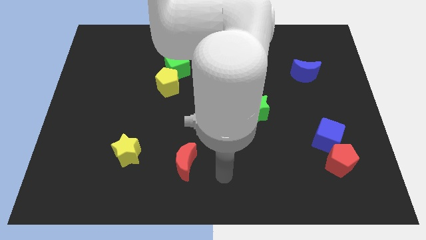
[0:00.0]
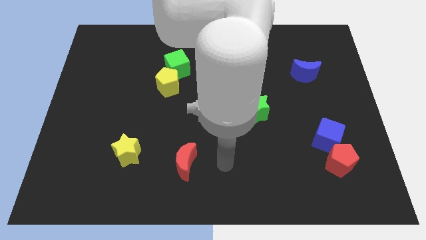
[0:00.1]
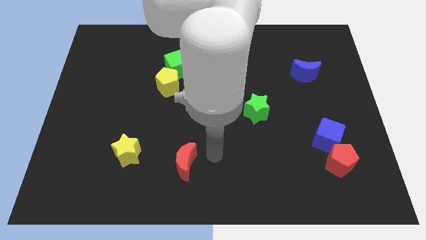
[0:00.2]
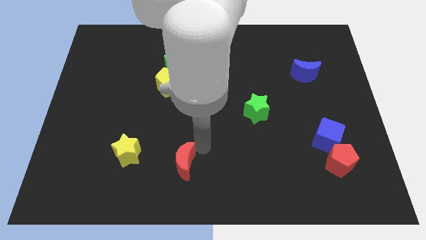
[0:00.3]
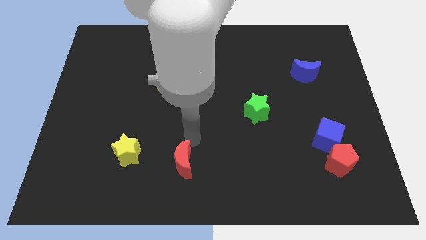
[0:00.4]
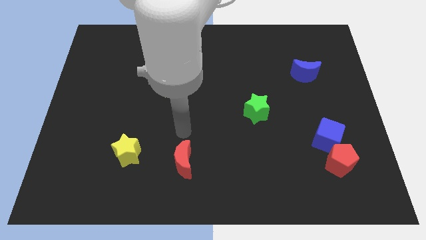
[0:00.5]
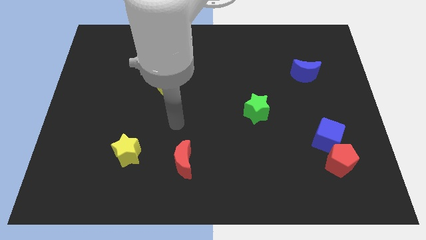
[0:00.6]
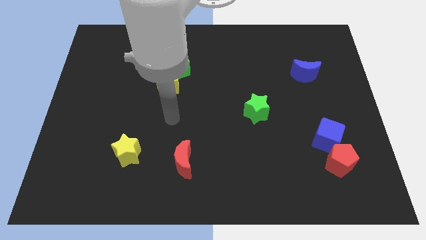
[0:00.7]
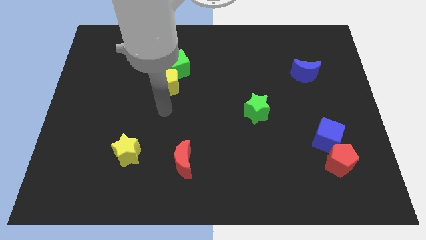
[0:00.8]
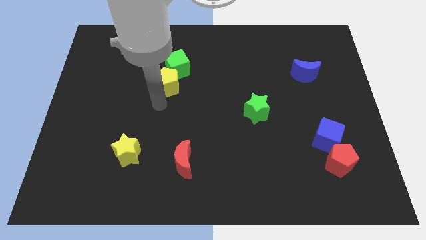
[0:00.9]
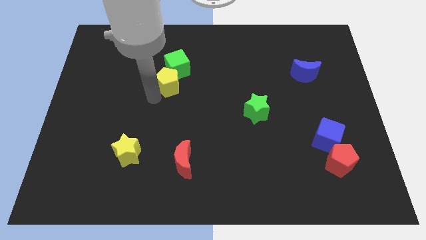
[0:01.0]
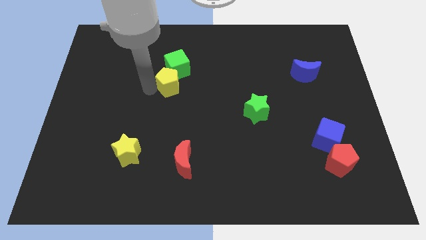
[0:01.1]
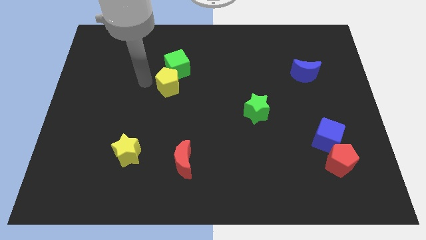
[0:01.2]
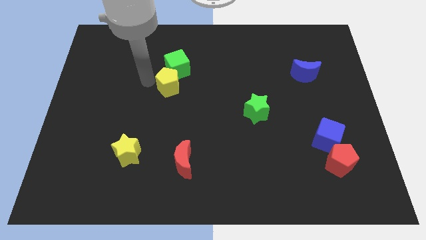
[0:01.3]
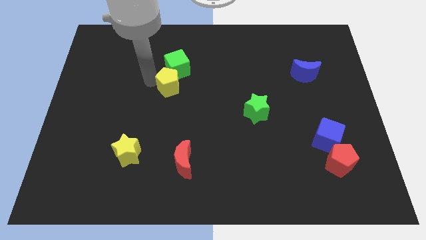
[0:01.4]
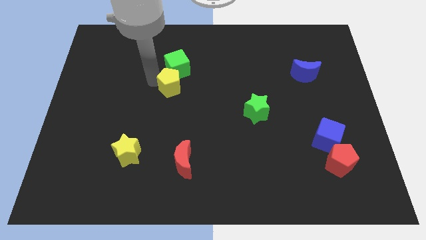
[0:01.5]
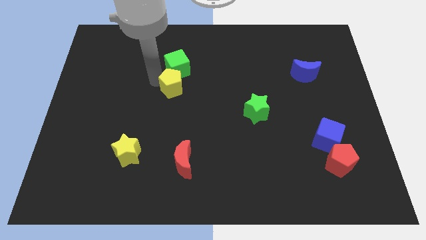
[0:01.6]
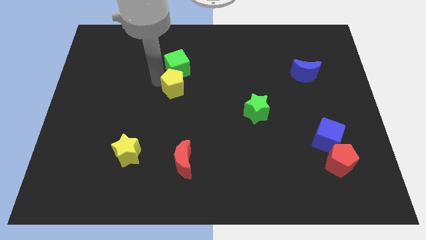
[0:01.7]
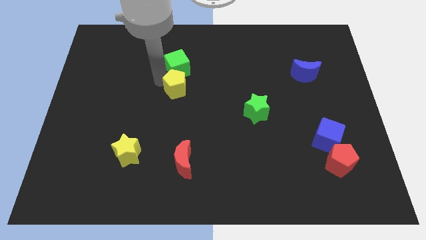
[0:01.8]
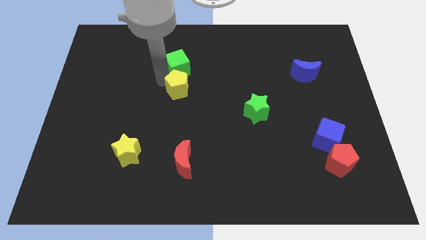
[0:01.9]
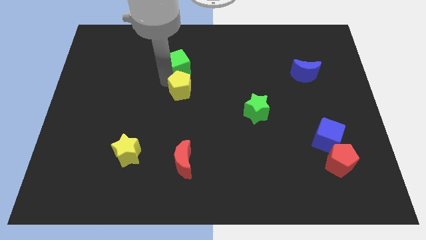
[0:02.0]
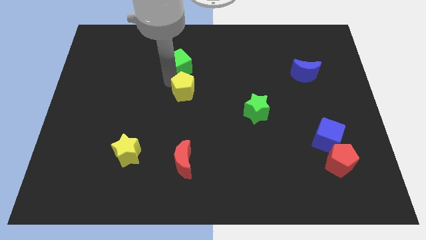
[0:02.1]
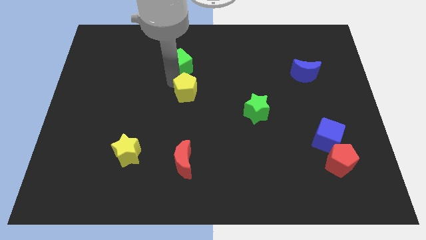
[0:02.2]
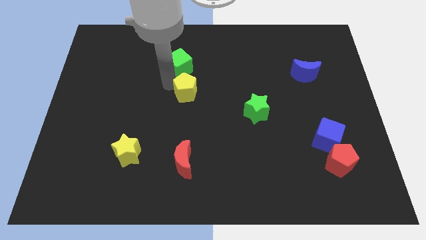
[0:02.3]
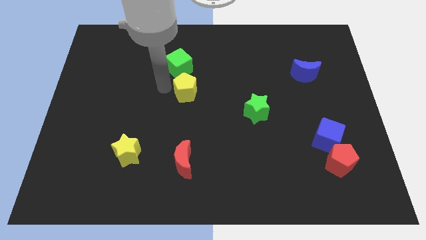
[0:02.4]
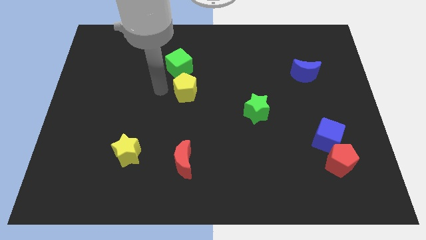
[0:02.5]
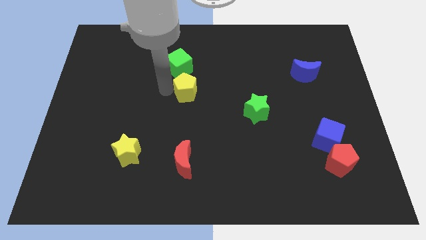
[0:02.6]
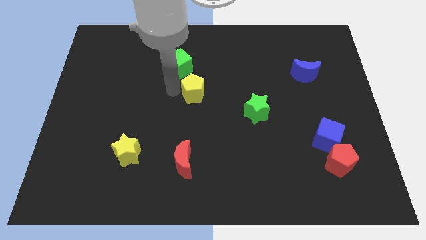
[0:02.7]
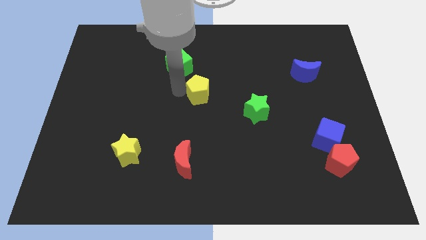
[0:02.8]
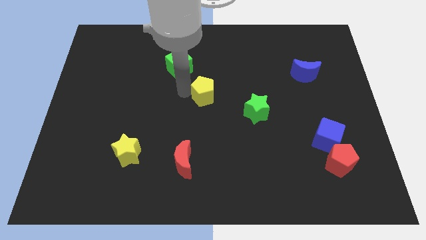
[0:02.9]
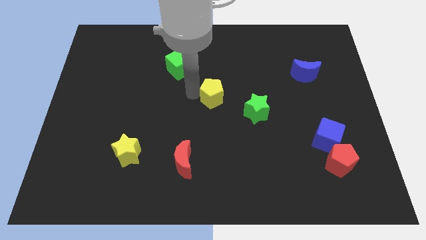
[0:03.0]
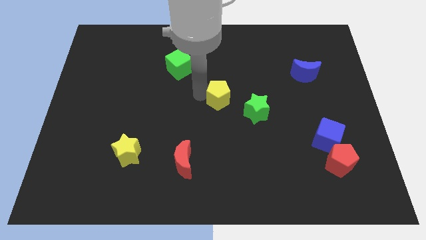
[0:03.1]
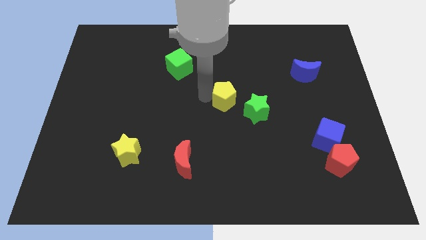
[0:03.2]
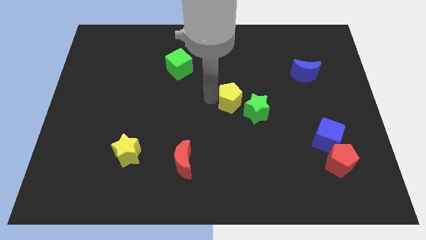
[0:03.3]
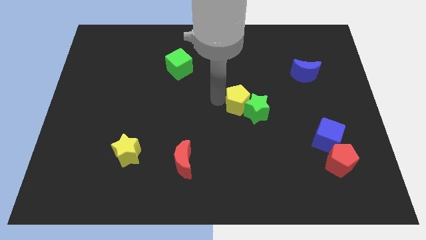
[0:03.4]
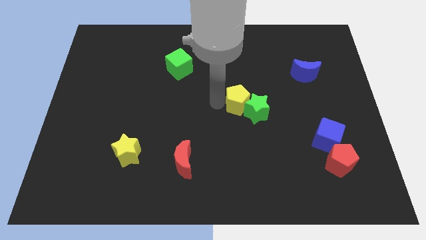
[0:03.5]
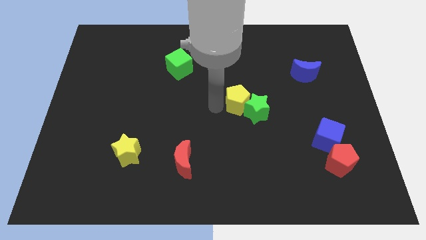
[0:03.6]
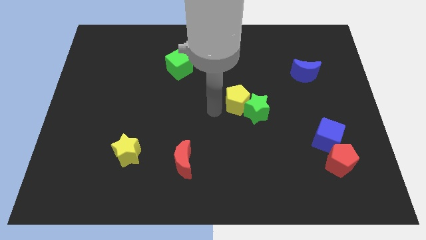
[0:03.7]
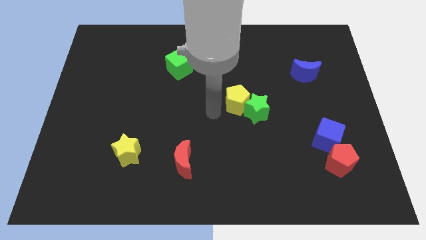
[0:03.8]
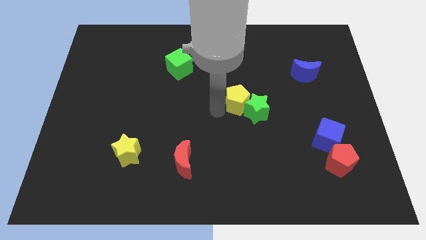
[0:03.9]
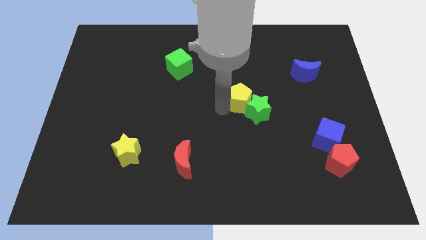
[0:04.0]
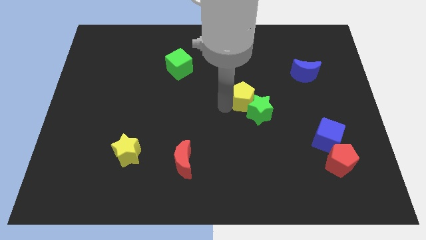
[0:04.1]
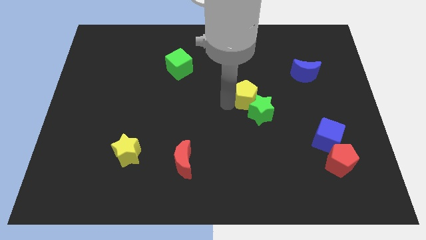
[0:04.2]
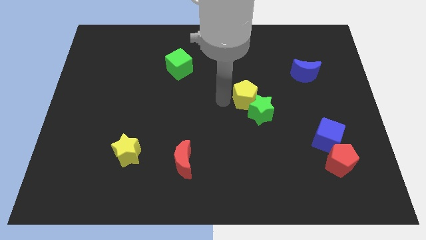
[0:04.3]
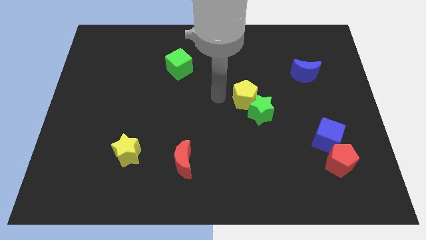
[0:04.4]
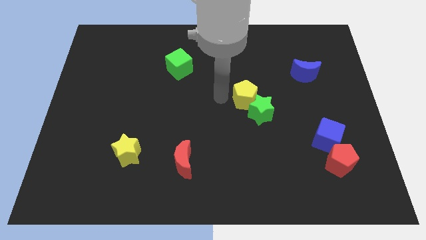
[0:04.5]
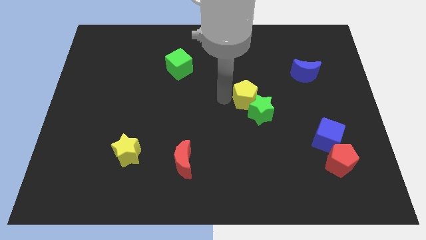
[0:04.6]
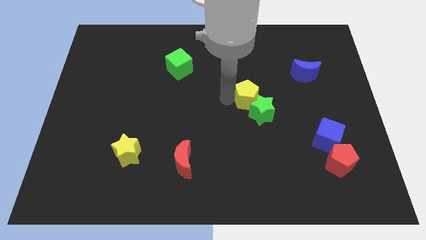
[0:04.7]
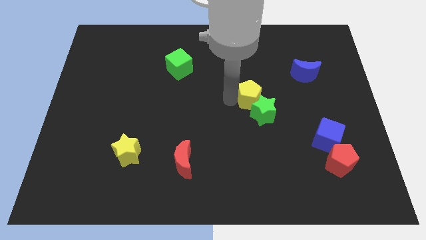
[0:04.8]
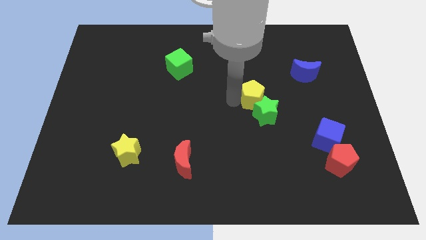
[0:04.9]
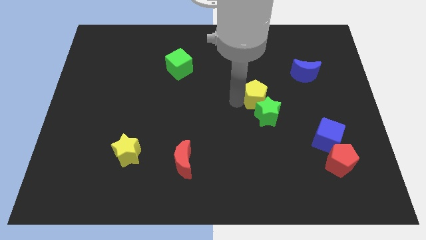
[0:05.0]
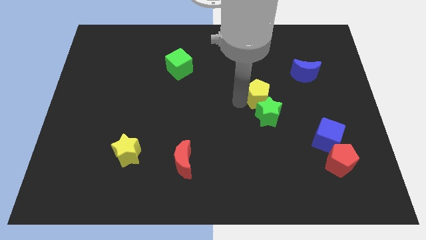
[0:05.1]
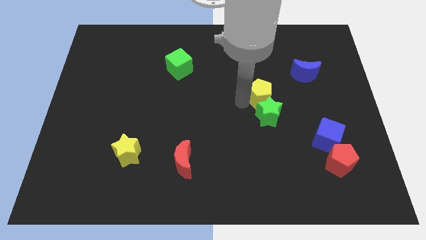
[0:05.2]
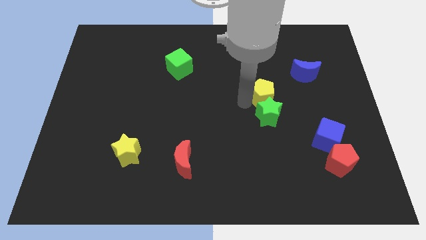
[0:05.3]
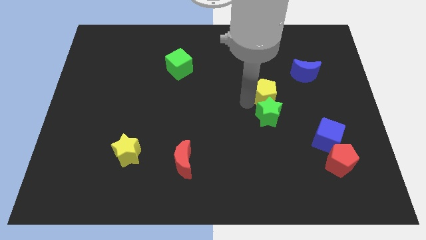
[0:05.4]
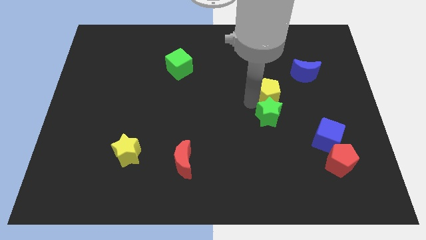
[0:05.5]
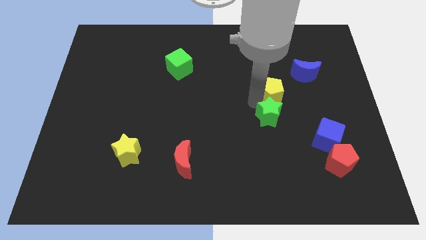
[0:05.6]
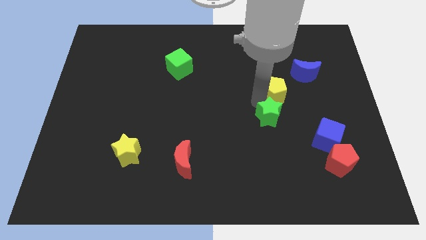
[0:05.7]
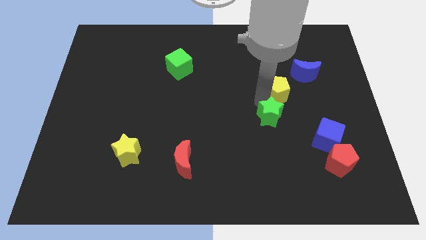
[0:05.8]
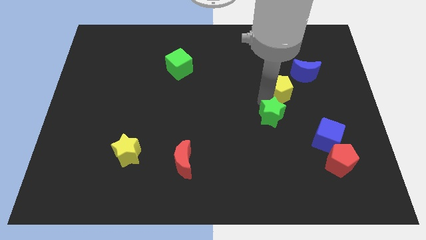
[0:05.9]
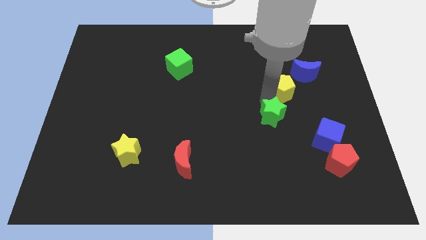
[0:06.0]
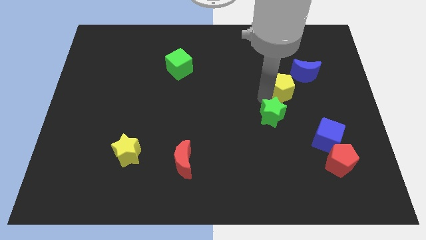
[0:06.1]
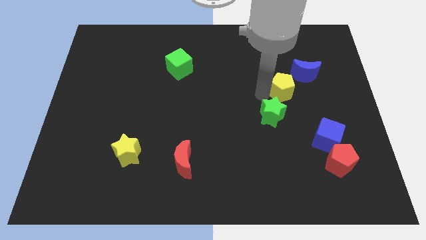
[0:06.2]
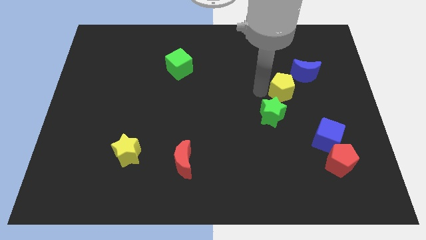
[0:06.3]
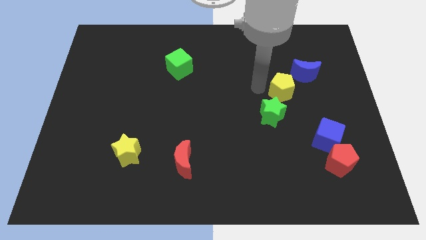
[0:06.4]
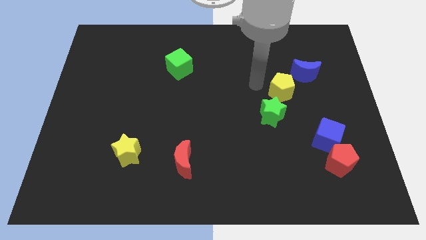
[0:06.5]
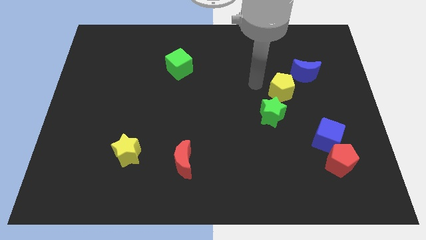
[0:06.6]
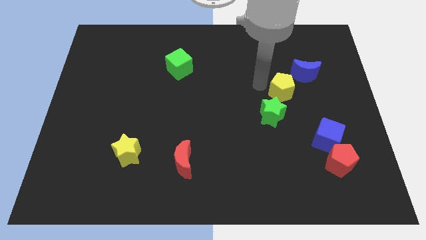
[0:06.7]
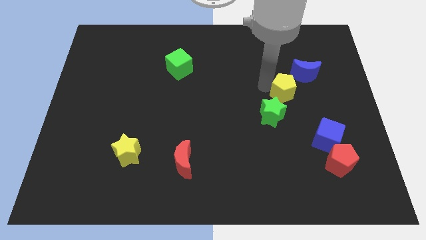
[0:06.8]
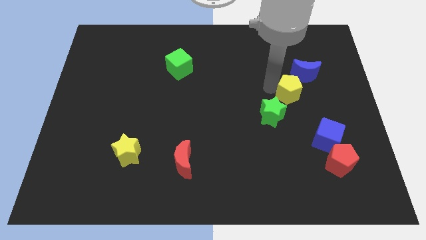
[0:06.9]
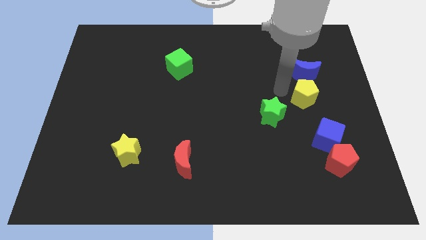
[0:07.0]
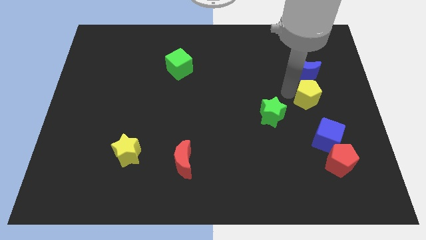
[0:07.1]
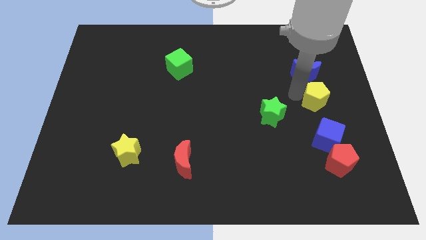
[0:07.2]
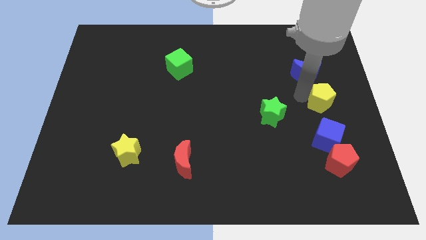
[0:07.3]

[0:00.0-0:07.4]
move the yellow pentagon to the right side of the board
